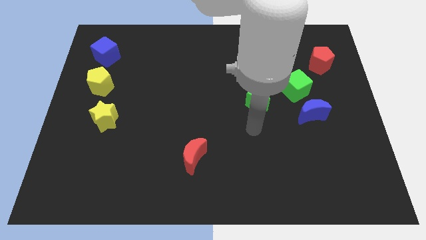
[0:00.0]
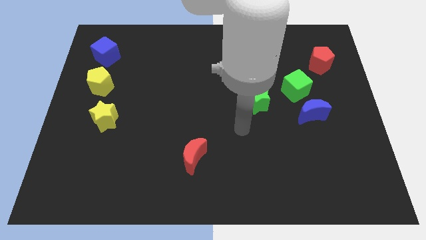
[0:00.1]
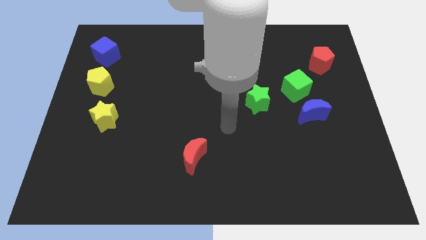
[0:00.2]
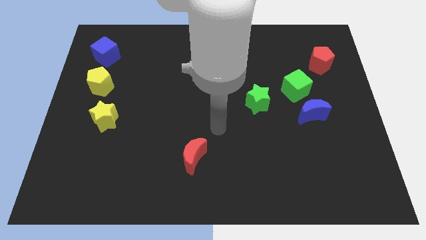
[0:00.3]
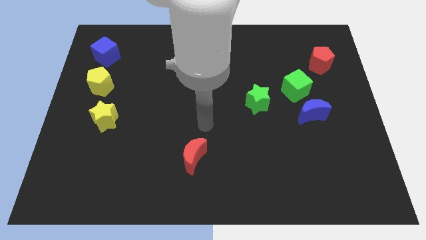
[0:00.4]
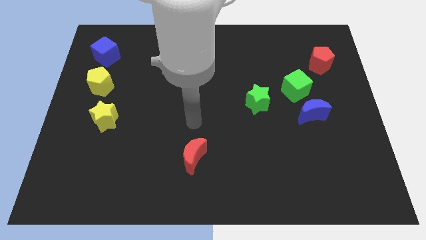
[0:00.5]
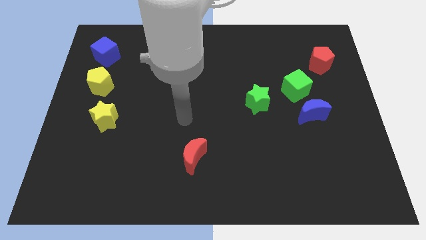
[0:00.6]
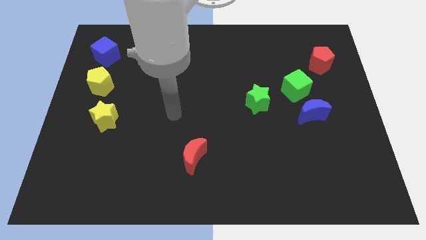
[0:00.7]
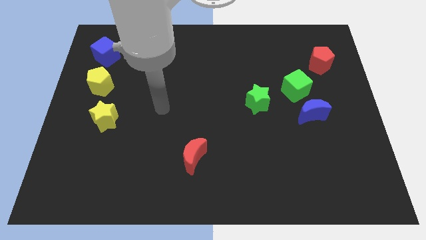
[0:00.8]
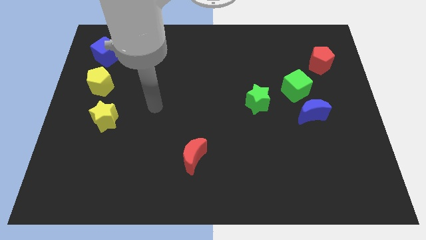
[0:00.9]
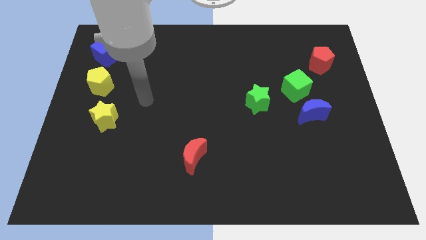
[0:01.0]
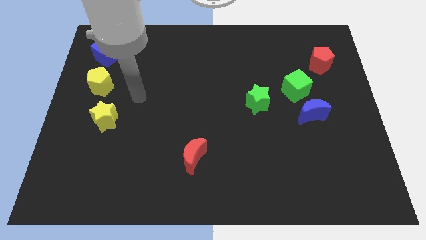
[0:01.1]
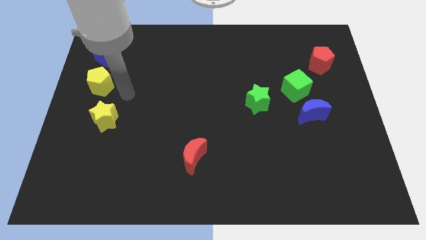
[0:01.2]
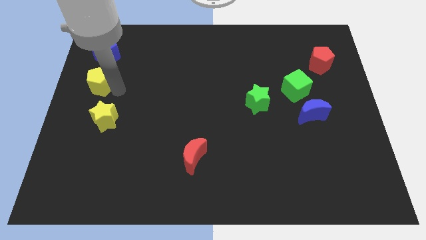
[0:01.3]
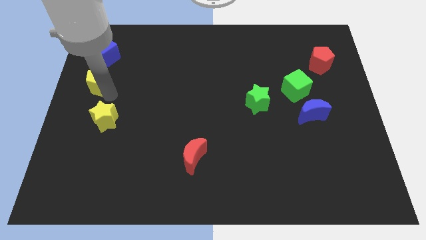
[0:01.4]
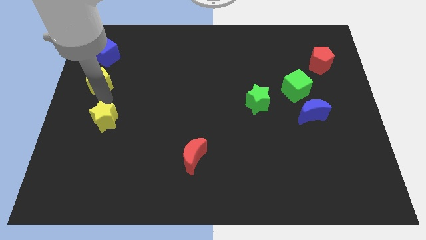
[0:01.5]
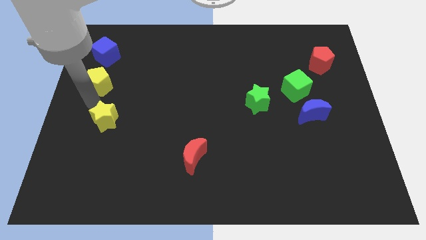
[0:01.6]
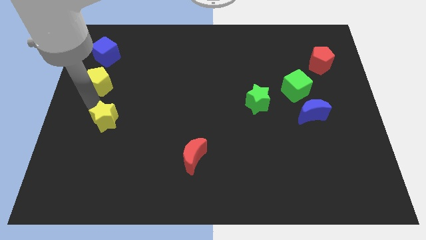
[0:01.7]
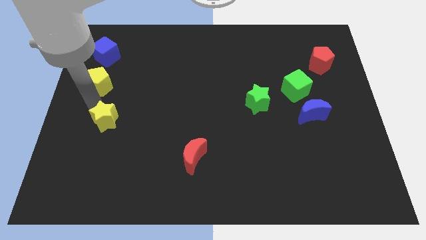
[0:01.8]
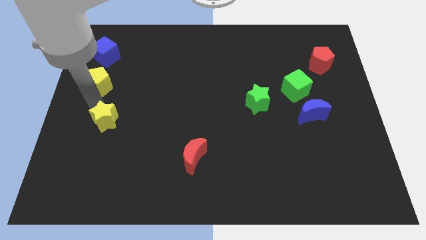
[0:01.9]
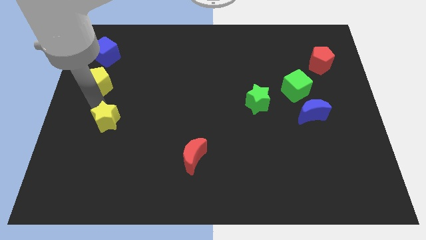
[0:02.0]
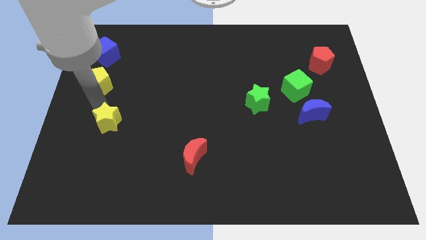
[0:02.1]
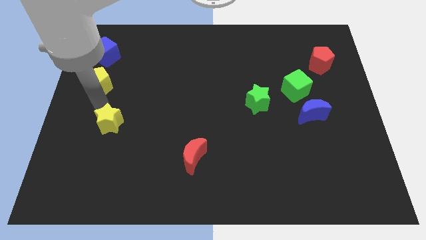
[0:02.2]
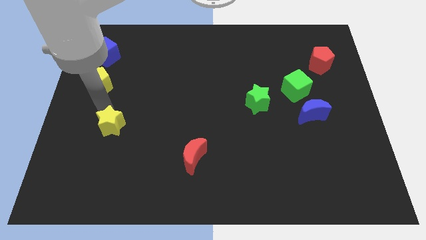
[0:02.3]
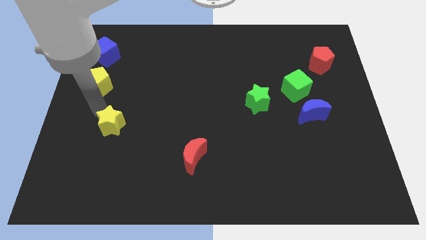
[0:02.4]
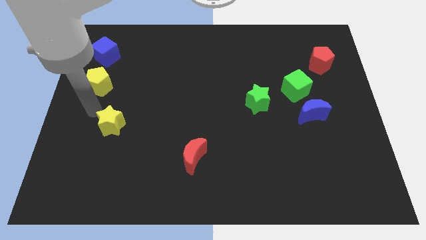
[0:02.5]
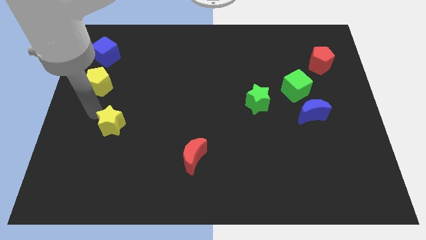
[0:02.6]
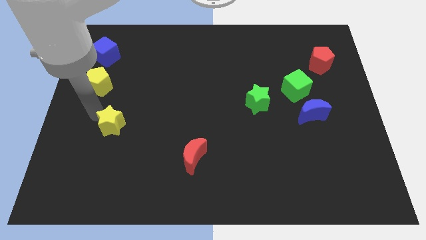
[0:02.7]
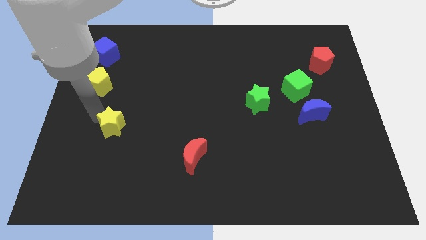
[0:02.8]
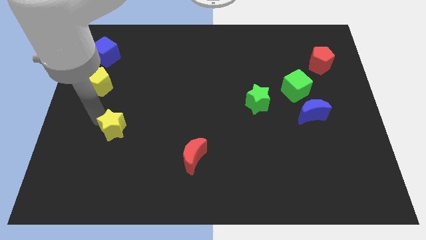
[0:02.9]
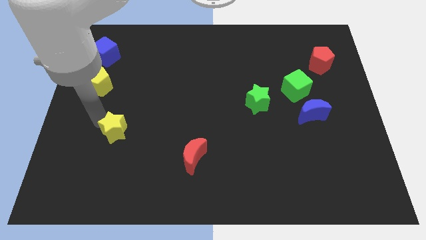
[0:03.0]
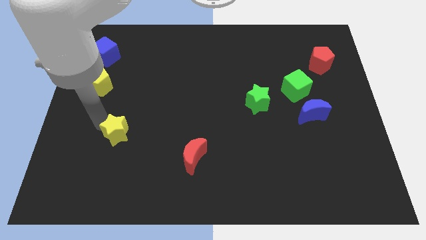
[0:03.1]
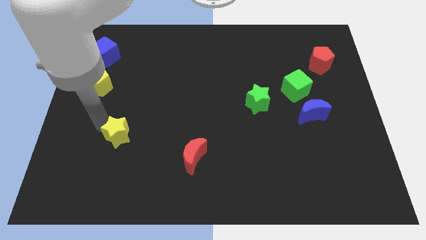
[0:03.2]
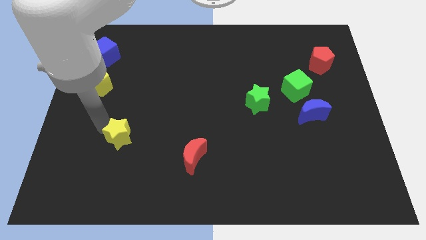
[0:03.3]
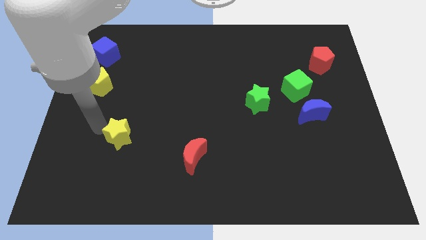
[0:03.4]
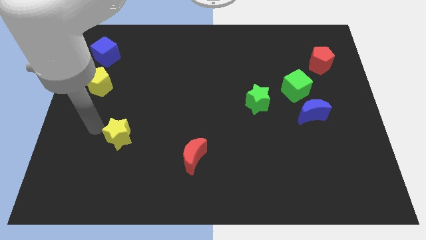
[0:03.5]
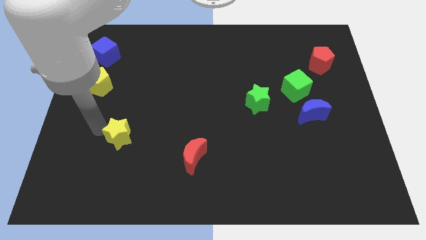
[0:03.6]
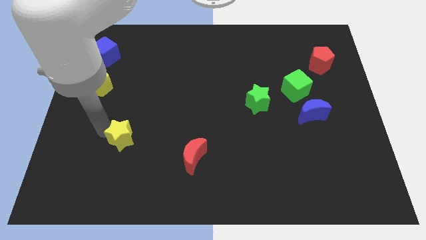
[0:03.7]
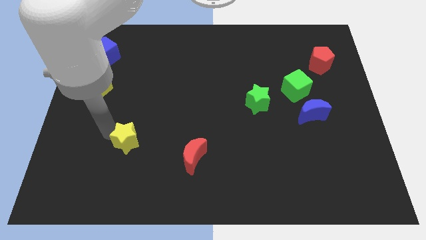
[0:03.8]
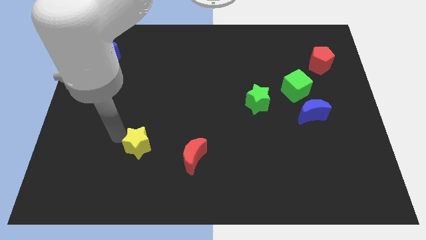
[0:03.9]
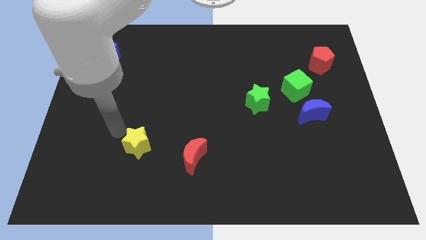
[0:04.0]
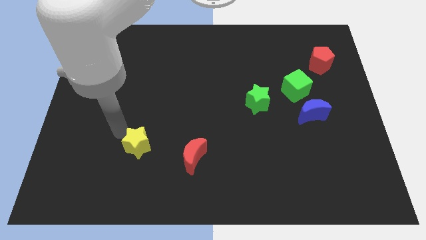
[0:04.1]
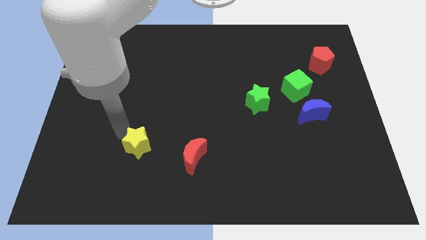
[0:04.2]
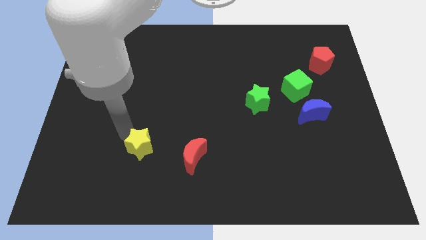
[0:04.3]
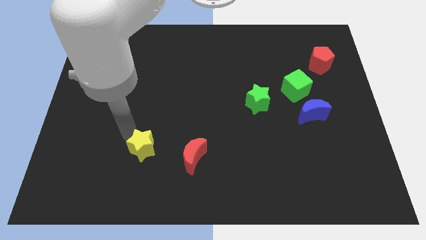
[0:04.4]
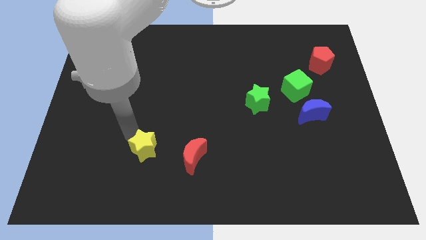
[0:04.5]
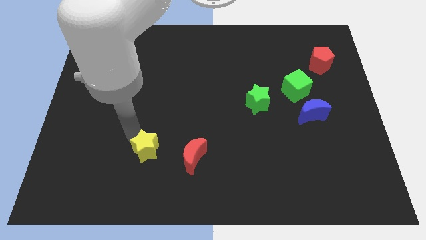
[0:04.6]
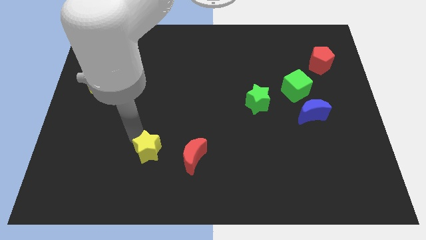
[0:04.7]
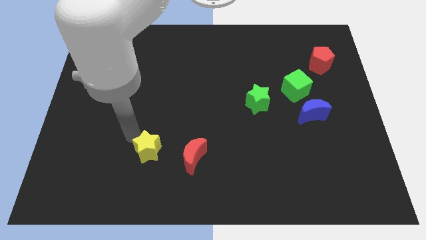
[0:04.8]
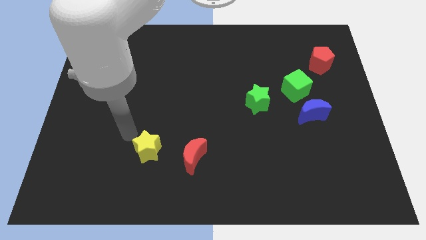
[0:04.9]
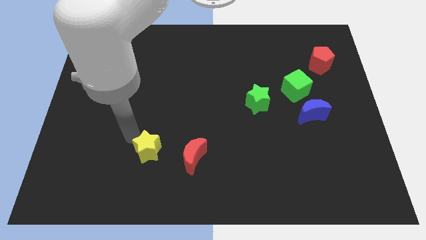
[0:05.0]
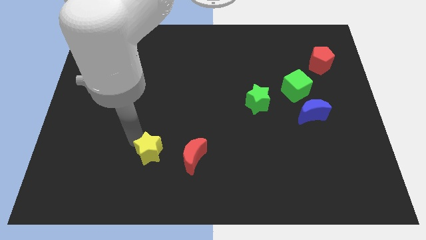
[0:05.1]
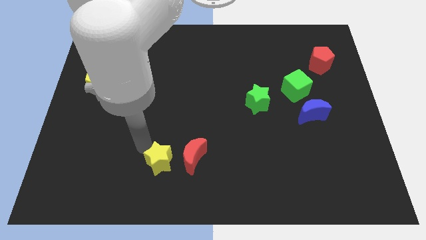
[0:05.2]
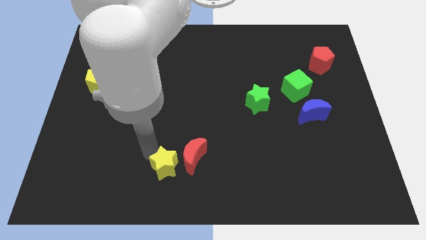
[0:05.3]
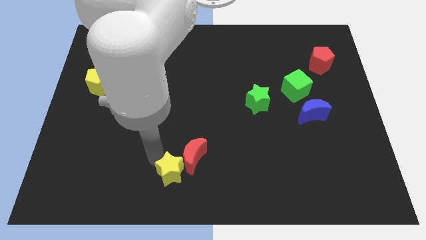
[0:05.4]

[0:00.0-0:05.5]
move the yellow star to the bottom

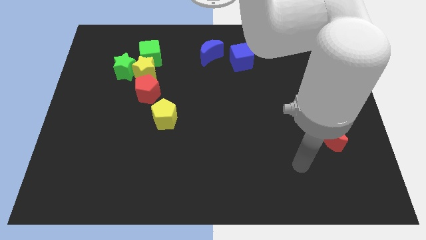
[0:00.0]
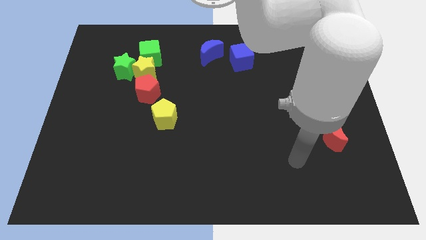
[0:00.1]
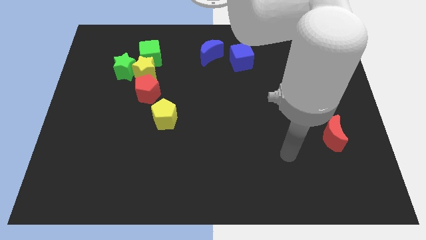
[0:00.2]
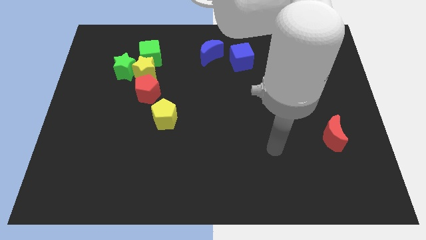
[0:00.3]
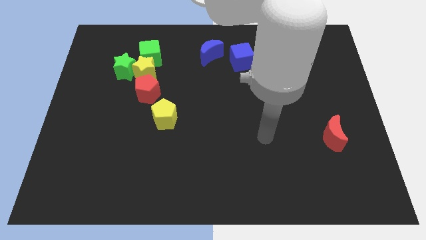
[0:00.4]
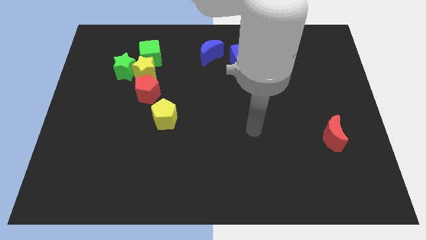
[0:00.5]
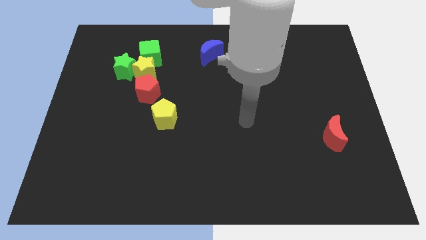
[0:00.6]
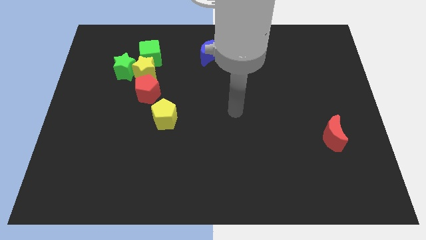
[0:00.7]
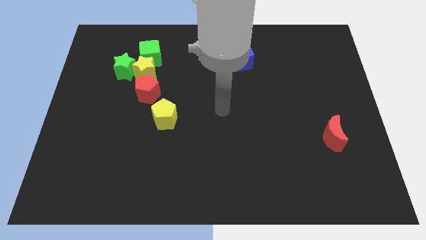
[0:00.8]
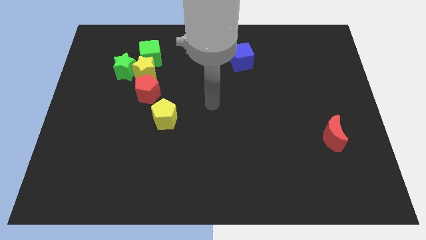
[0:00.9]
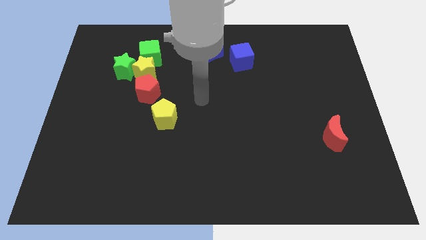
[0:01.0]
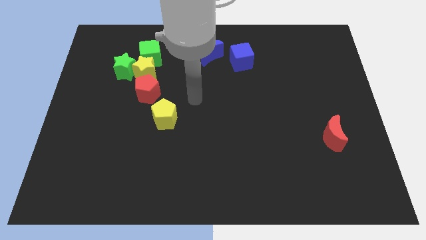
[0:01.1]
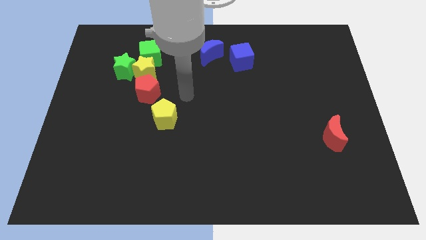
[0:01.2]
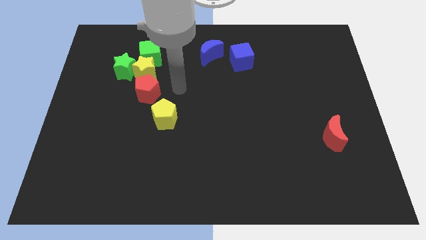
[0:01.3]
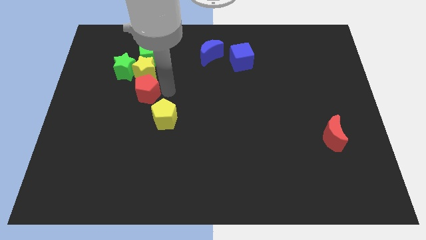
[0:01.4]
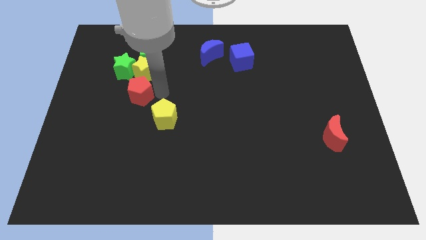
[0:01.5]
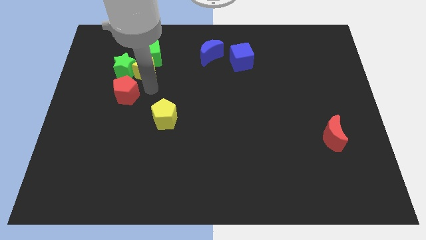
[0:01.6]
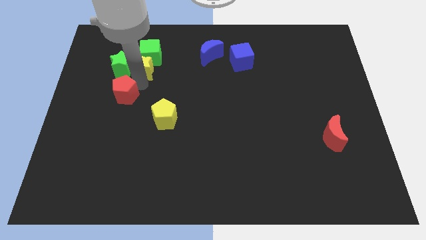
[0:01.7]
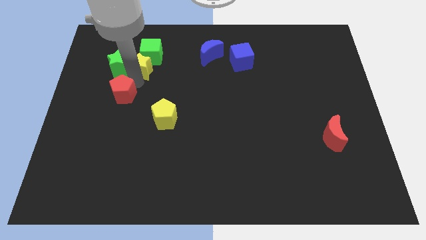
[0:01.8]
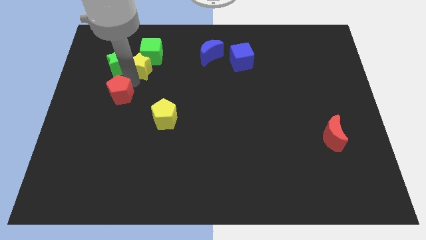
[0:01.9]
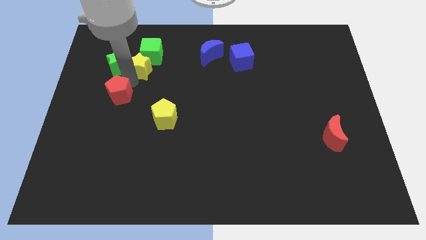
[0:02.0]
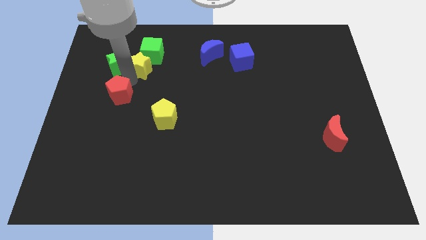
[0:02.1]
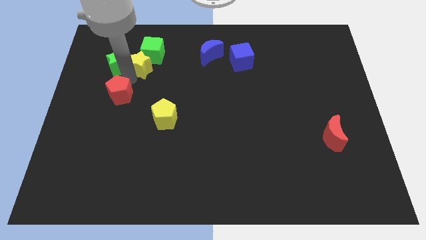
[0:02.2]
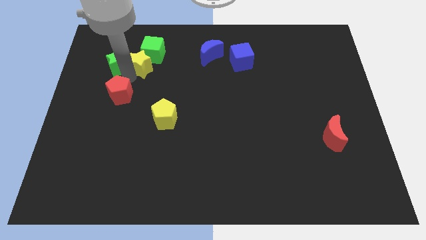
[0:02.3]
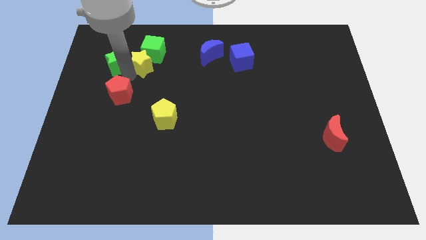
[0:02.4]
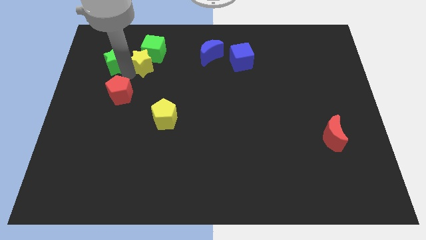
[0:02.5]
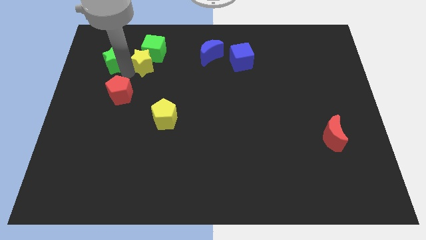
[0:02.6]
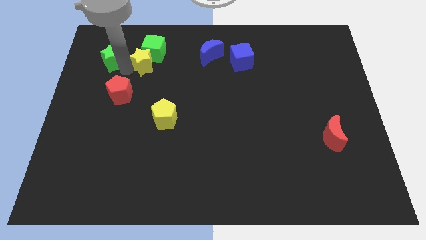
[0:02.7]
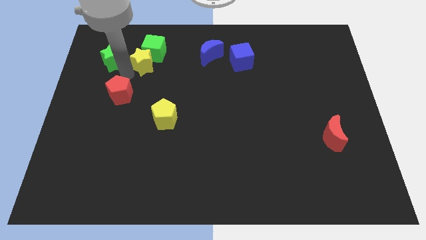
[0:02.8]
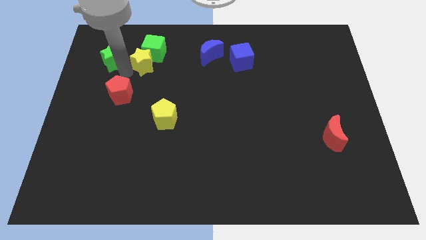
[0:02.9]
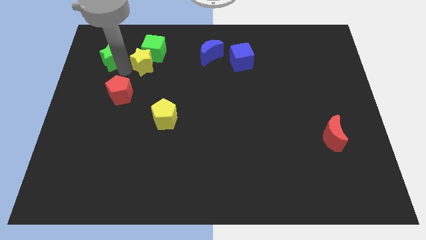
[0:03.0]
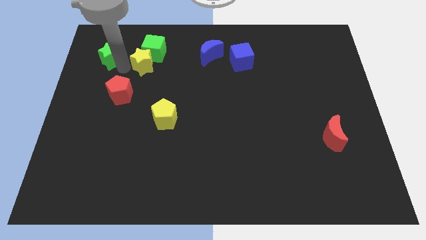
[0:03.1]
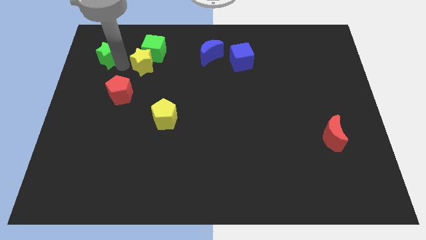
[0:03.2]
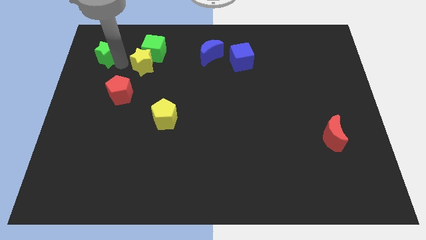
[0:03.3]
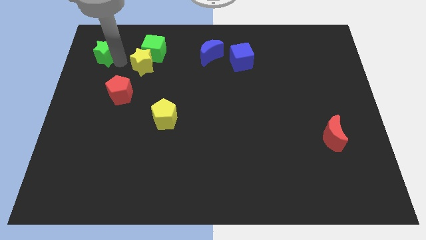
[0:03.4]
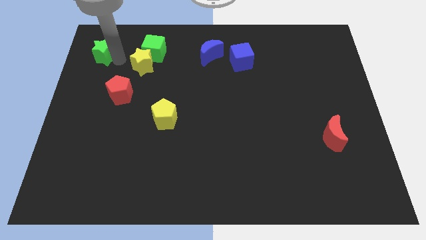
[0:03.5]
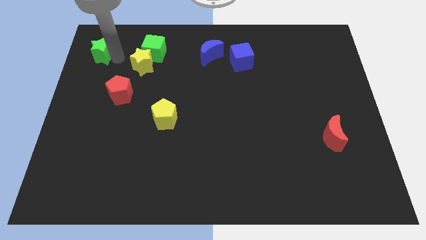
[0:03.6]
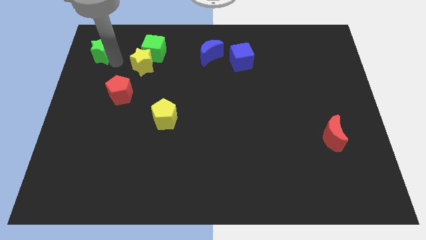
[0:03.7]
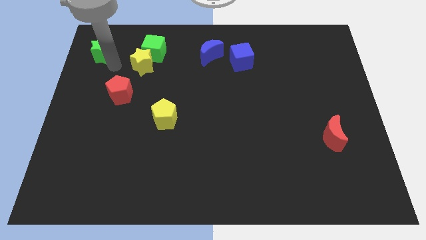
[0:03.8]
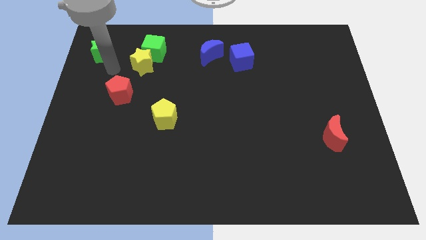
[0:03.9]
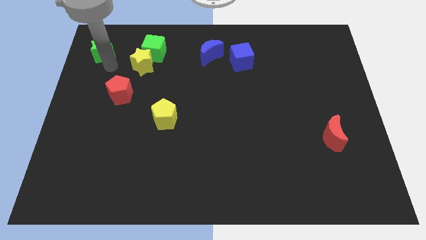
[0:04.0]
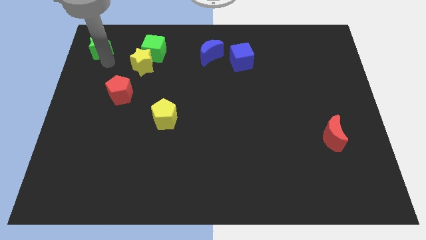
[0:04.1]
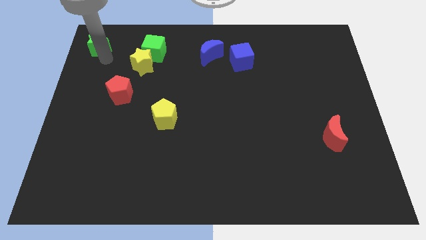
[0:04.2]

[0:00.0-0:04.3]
push the green star to the top left corner
